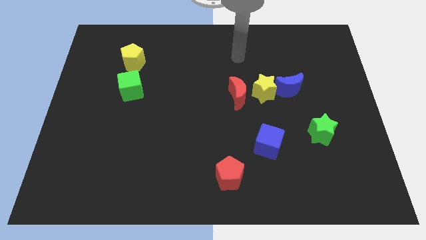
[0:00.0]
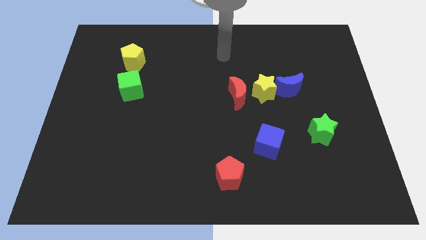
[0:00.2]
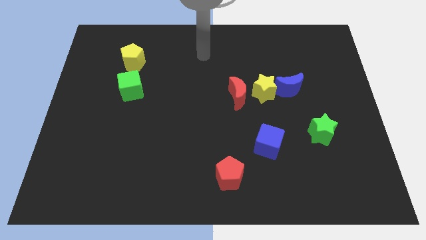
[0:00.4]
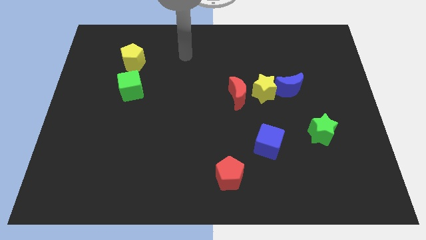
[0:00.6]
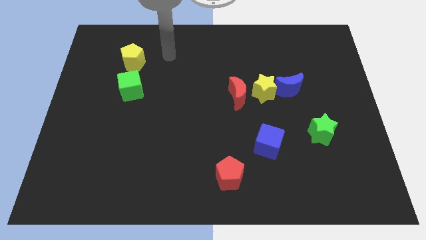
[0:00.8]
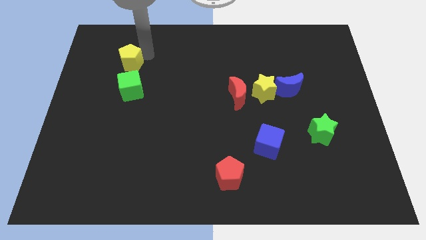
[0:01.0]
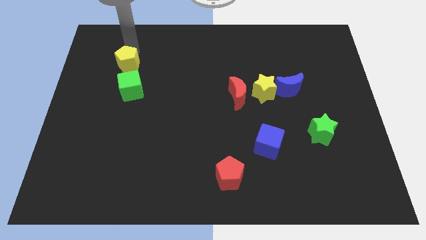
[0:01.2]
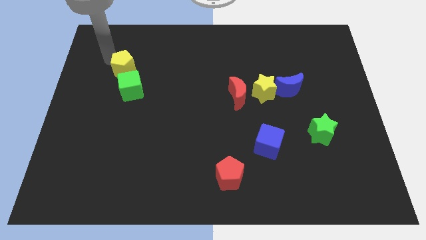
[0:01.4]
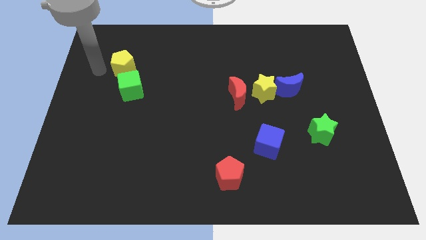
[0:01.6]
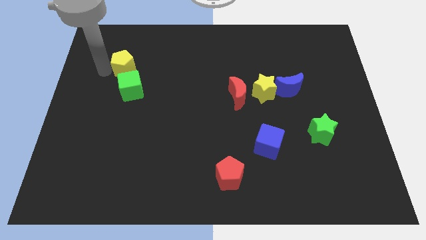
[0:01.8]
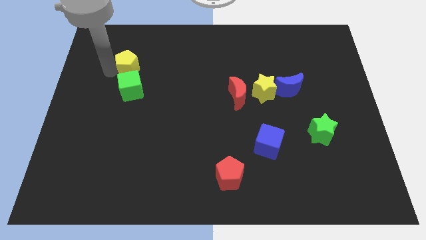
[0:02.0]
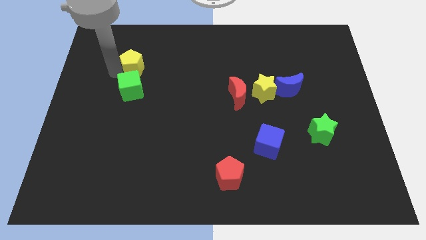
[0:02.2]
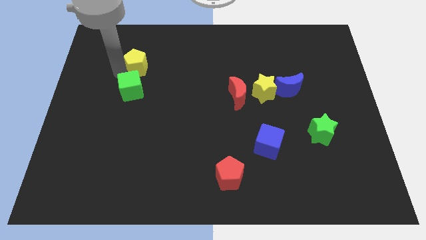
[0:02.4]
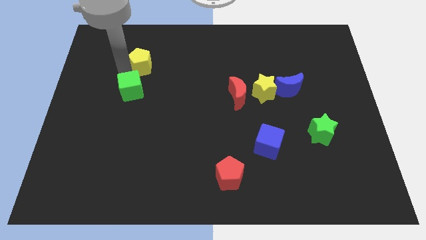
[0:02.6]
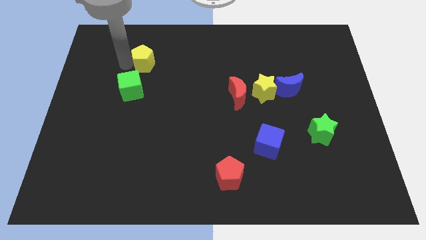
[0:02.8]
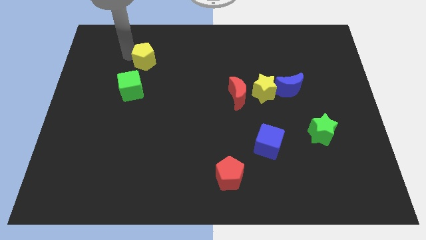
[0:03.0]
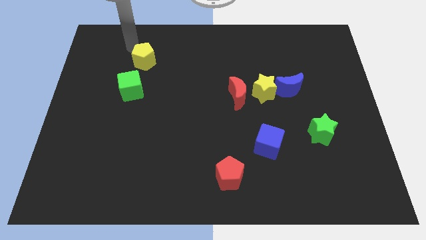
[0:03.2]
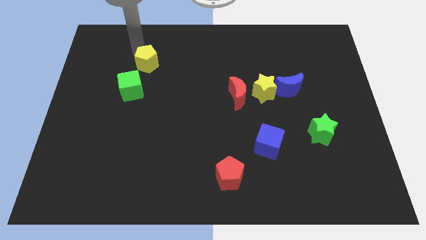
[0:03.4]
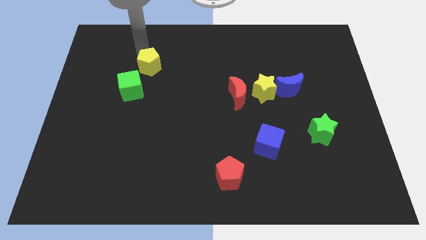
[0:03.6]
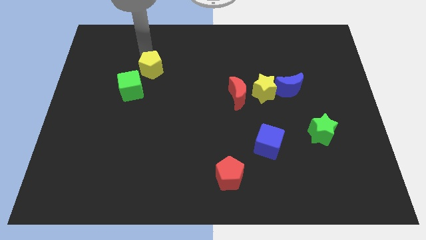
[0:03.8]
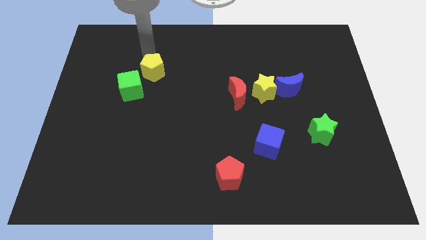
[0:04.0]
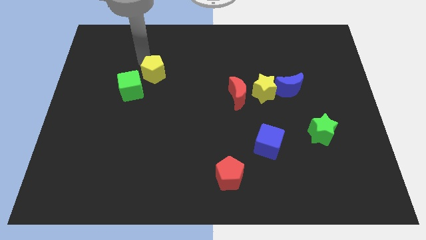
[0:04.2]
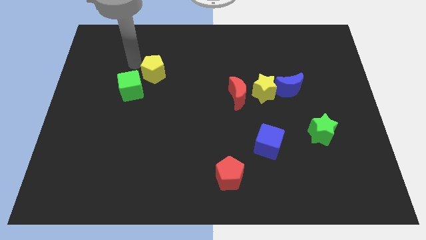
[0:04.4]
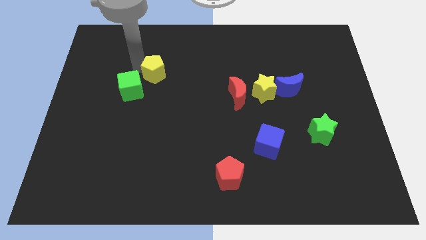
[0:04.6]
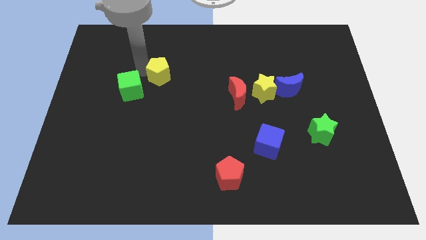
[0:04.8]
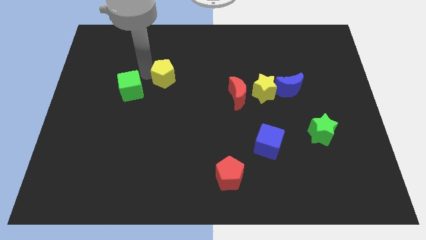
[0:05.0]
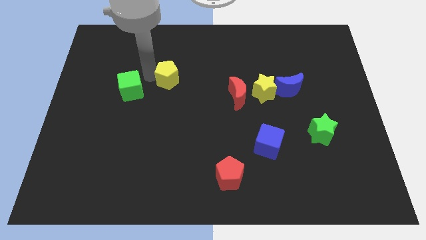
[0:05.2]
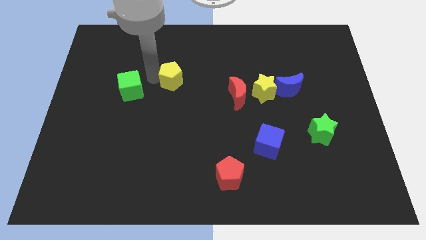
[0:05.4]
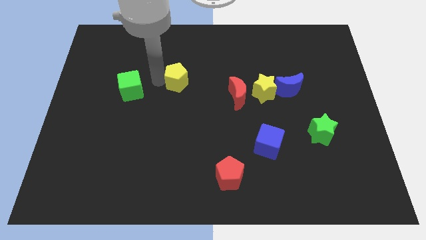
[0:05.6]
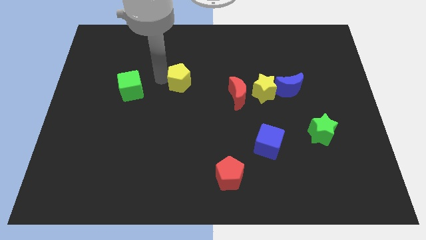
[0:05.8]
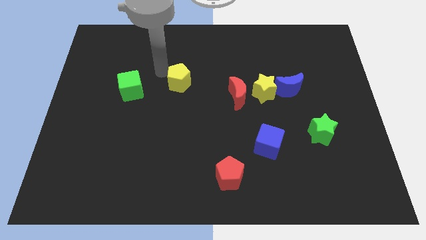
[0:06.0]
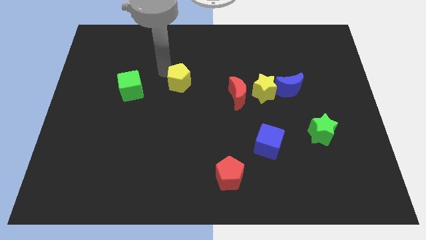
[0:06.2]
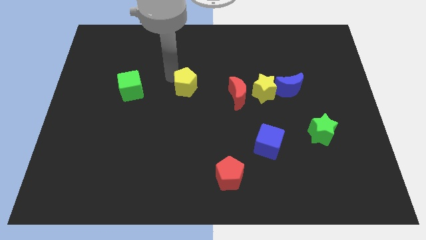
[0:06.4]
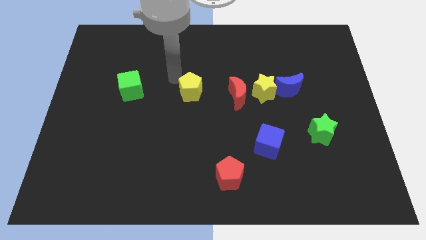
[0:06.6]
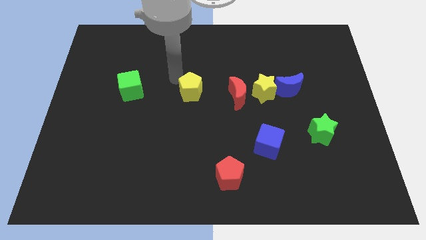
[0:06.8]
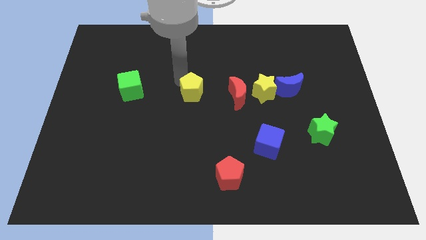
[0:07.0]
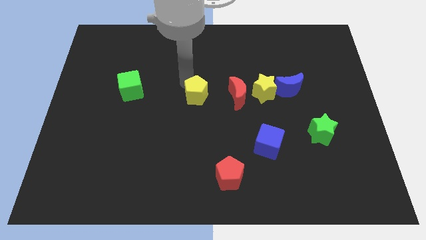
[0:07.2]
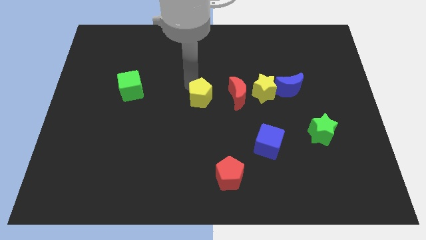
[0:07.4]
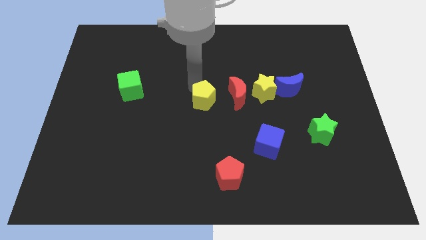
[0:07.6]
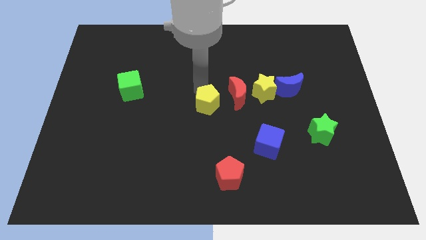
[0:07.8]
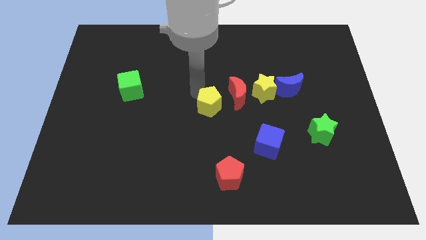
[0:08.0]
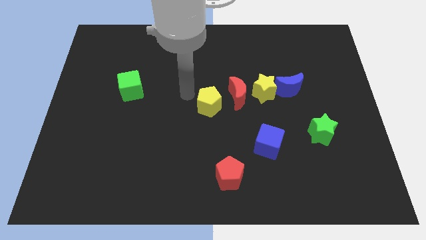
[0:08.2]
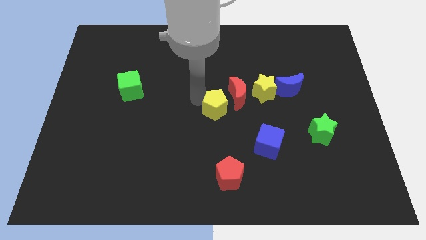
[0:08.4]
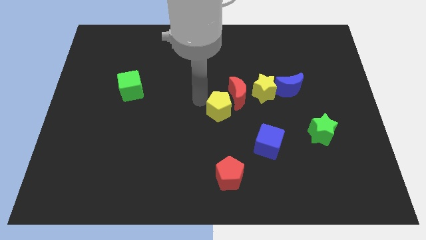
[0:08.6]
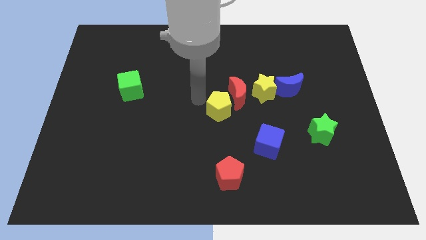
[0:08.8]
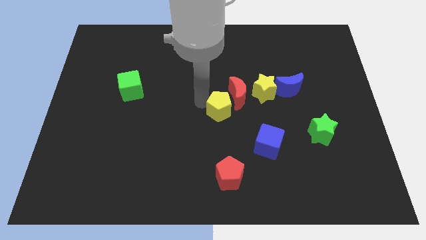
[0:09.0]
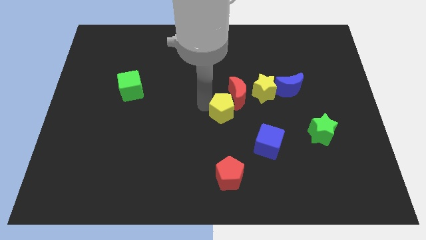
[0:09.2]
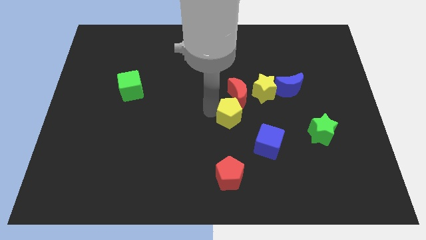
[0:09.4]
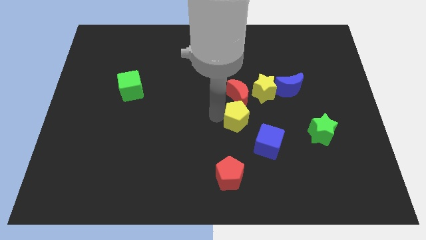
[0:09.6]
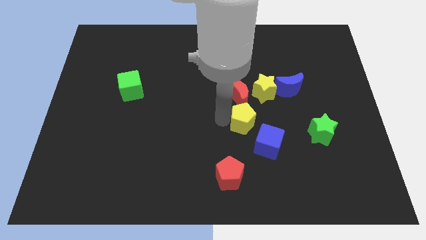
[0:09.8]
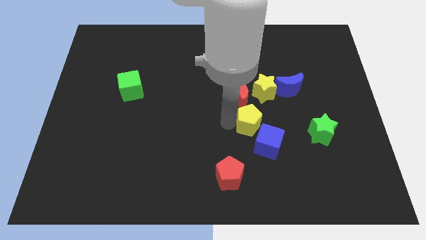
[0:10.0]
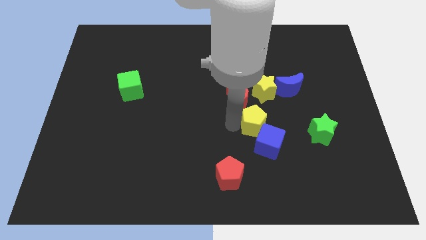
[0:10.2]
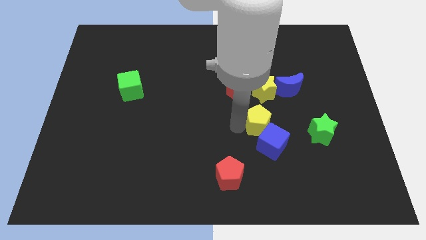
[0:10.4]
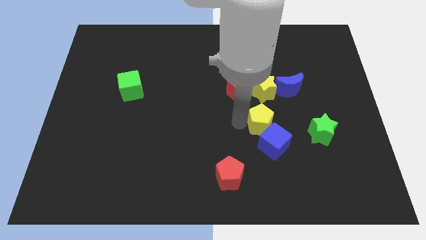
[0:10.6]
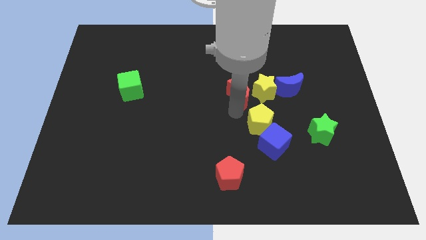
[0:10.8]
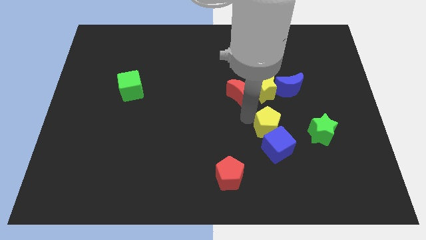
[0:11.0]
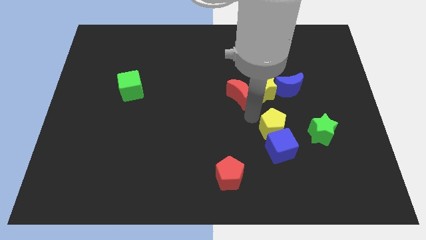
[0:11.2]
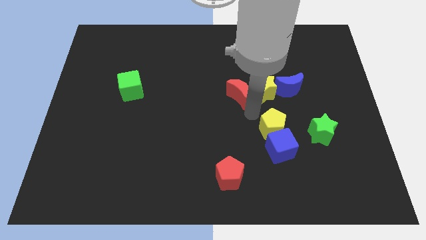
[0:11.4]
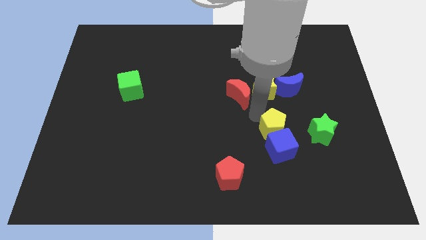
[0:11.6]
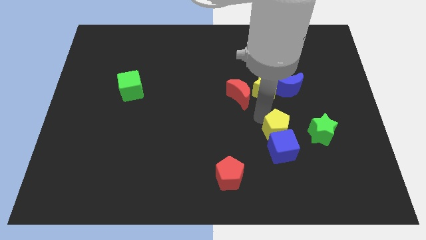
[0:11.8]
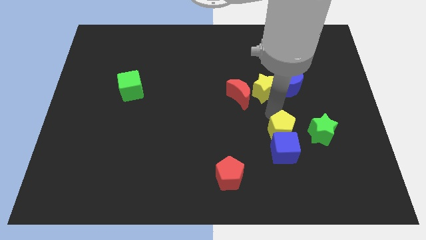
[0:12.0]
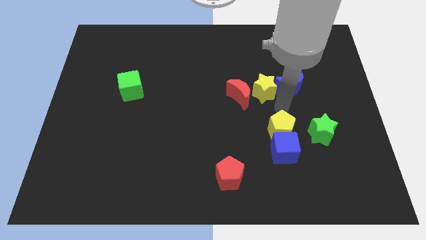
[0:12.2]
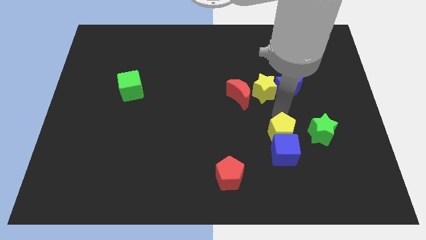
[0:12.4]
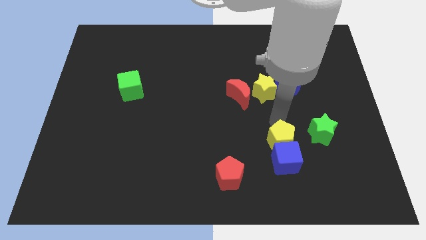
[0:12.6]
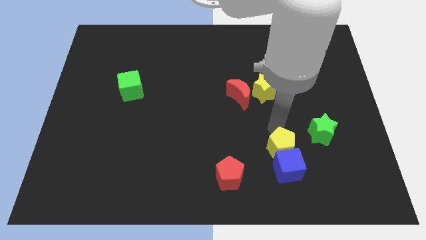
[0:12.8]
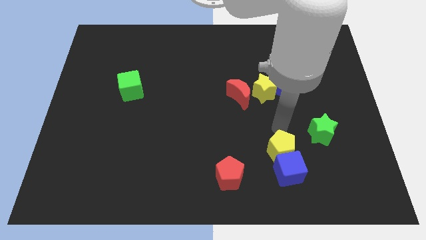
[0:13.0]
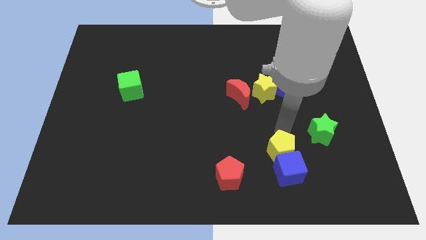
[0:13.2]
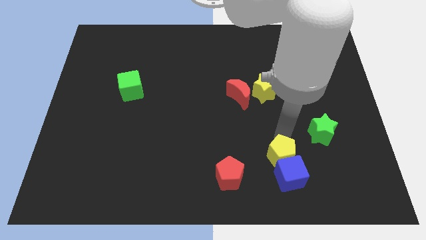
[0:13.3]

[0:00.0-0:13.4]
push the yellow pentagon just right of the red pentagon

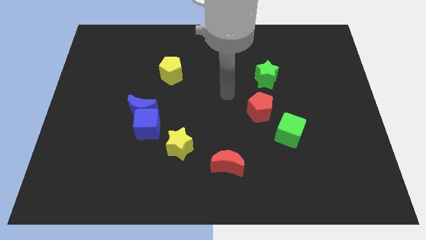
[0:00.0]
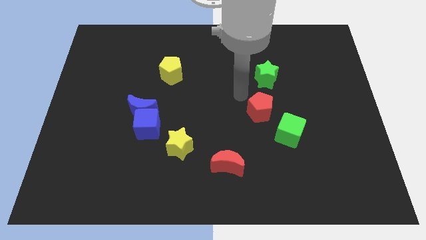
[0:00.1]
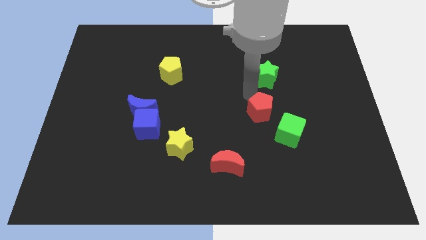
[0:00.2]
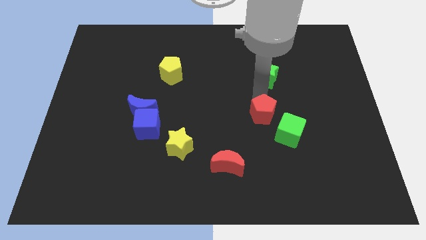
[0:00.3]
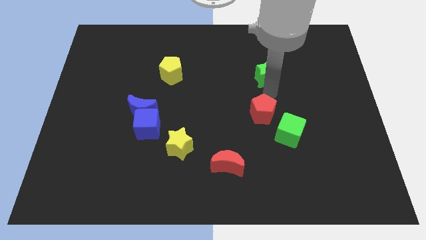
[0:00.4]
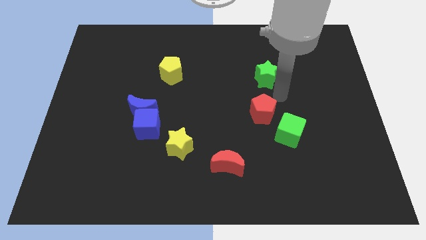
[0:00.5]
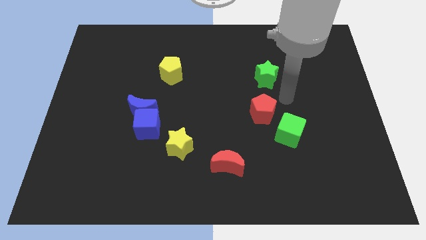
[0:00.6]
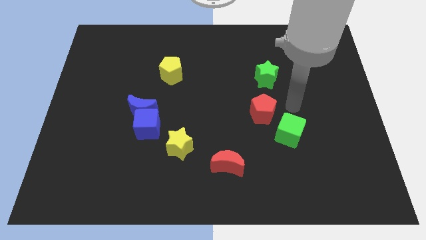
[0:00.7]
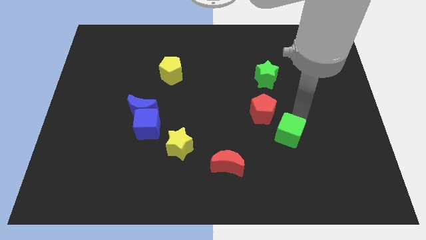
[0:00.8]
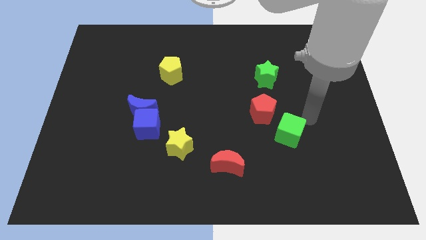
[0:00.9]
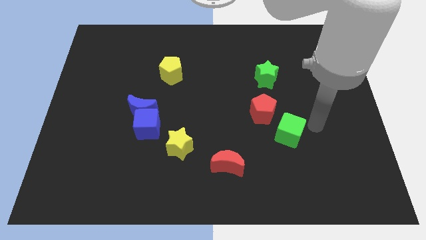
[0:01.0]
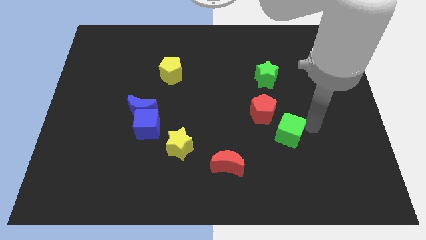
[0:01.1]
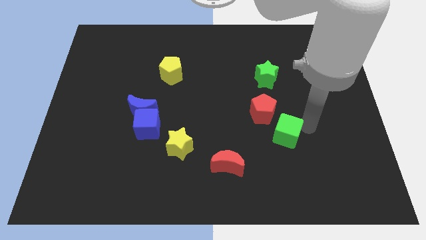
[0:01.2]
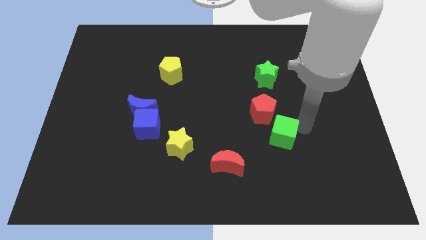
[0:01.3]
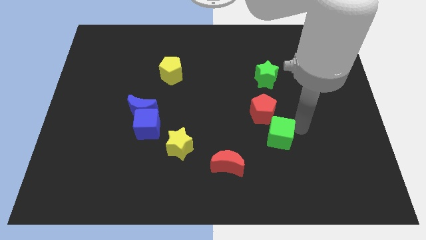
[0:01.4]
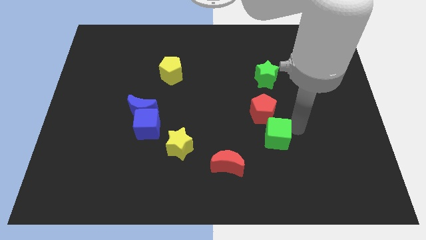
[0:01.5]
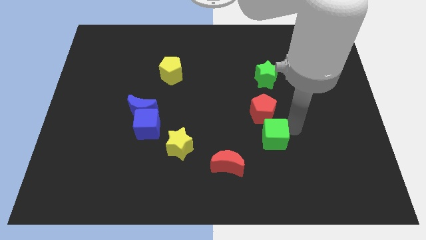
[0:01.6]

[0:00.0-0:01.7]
push the green cube to the top right of the red moon
